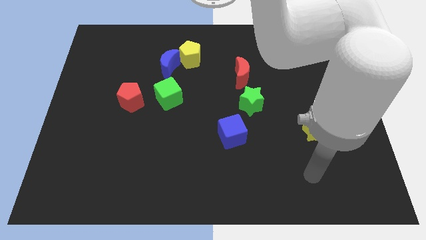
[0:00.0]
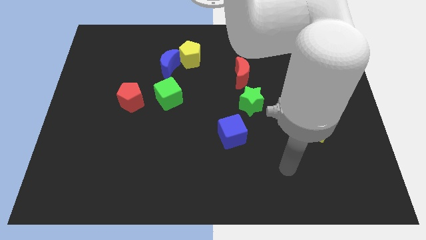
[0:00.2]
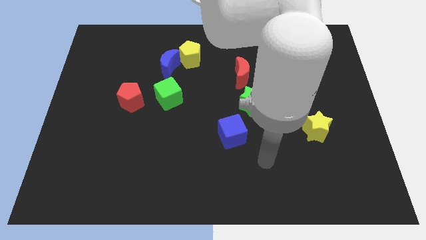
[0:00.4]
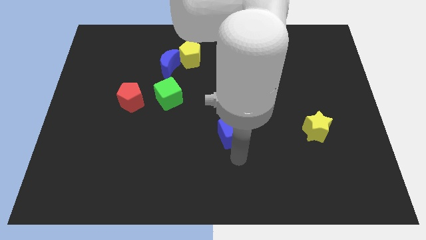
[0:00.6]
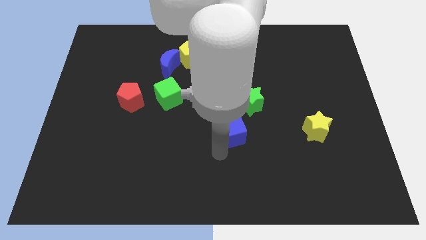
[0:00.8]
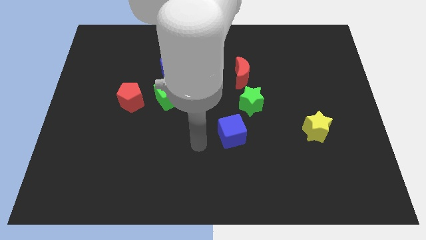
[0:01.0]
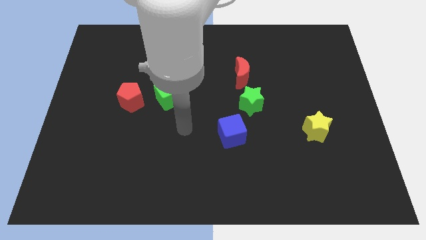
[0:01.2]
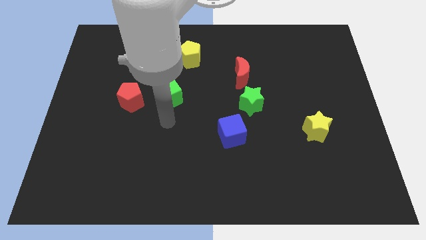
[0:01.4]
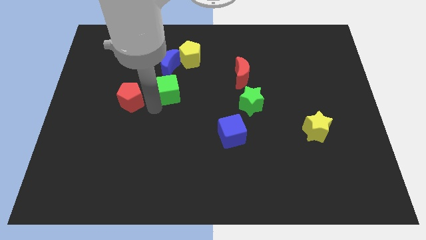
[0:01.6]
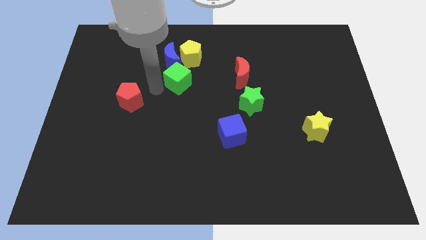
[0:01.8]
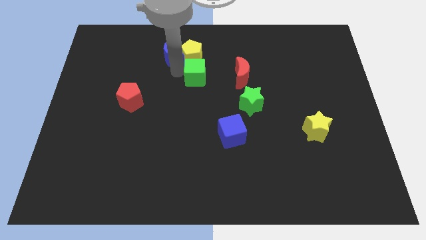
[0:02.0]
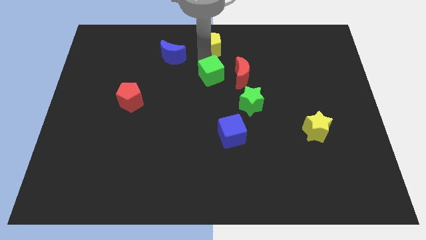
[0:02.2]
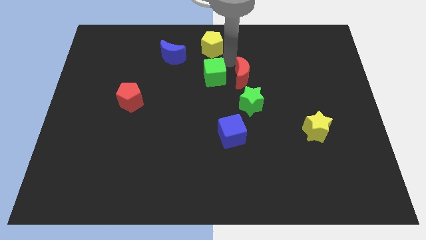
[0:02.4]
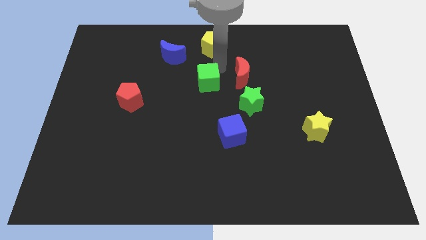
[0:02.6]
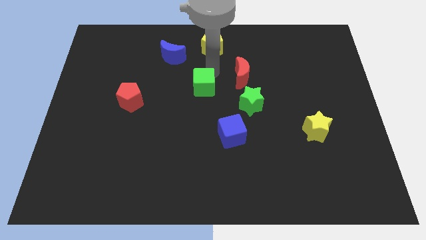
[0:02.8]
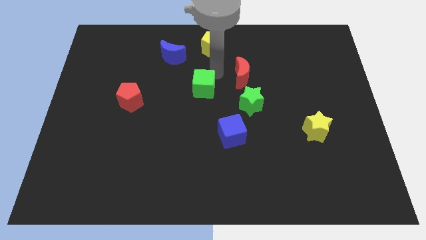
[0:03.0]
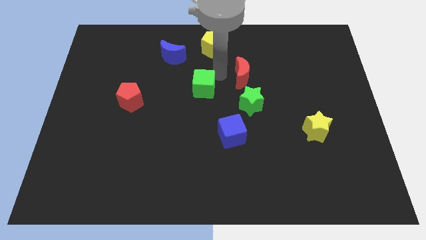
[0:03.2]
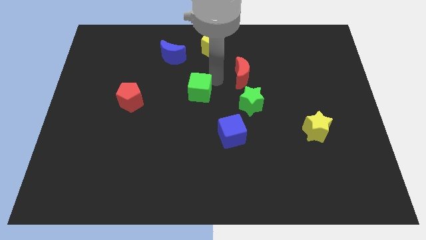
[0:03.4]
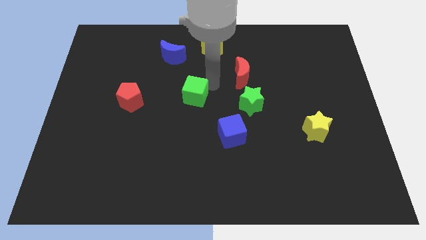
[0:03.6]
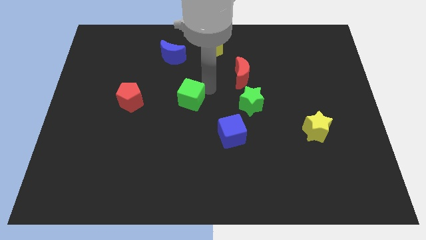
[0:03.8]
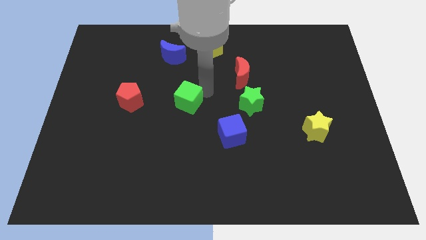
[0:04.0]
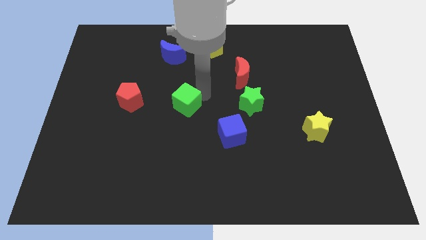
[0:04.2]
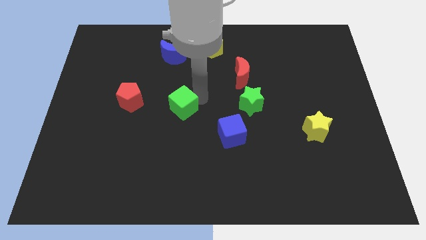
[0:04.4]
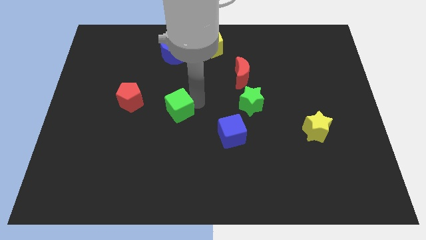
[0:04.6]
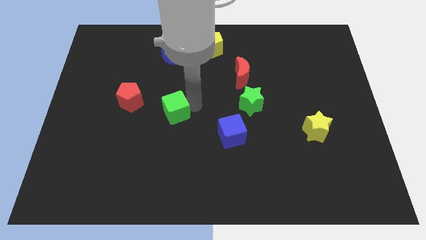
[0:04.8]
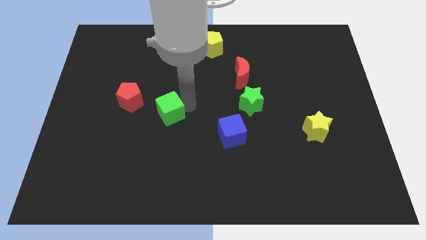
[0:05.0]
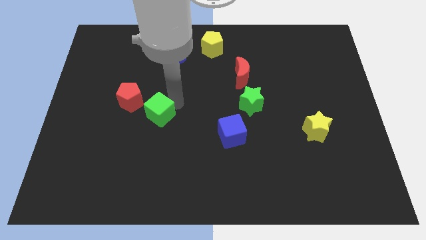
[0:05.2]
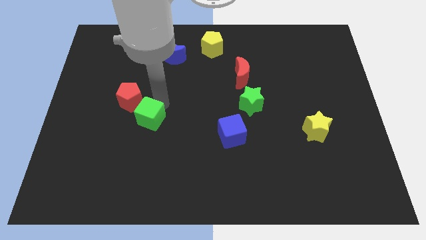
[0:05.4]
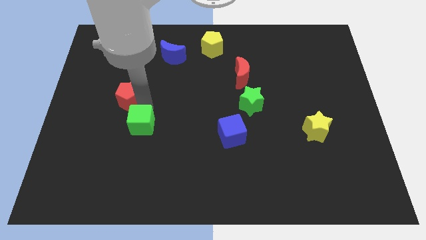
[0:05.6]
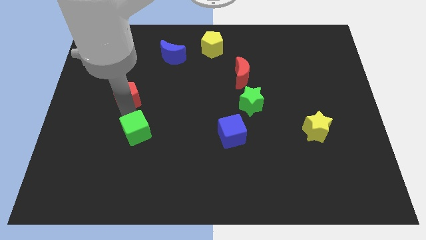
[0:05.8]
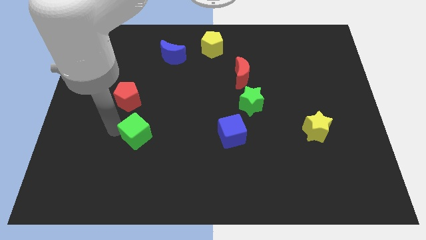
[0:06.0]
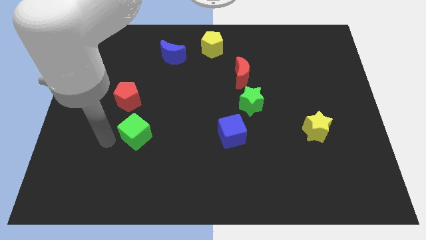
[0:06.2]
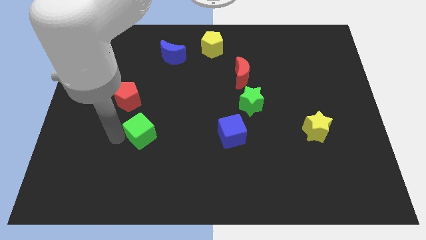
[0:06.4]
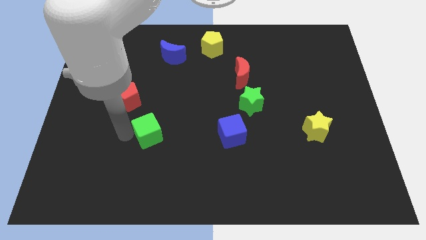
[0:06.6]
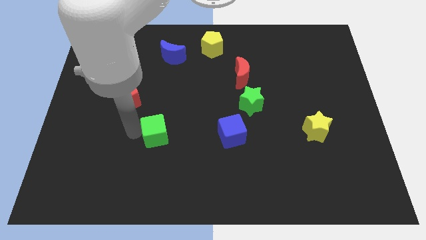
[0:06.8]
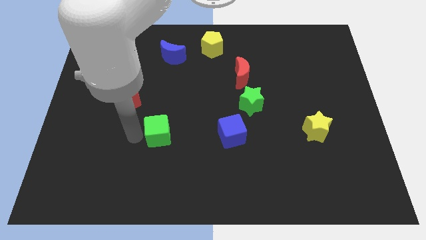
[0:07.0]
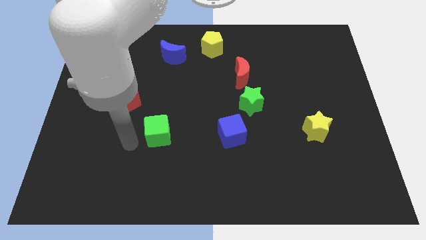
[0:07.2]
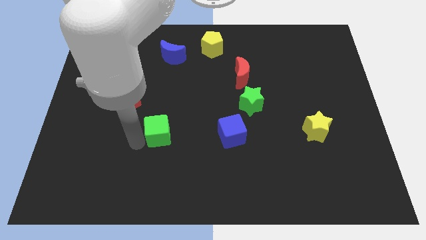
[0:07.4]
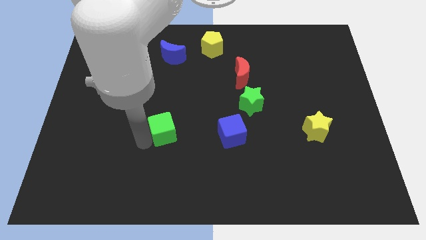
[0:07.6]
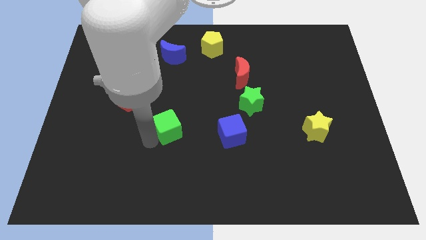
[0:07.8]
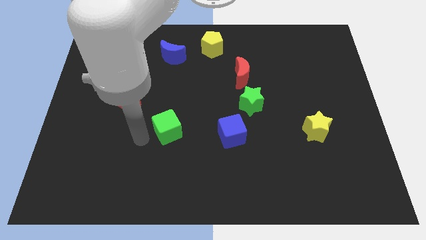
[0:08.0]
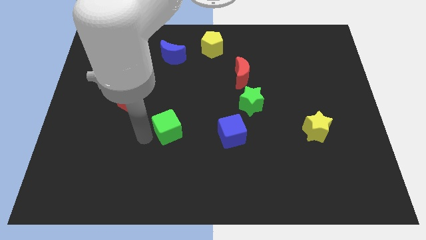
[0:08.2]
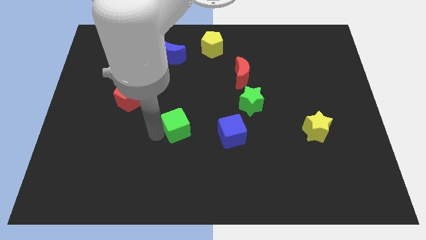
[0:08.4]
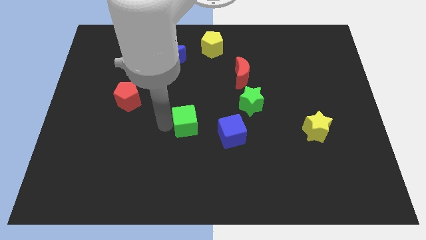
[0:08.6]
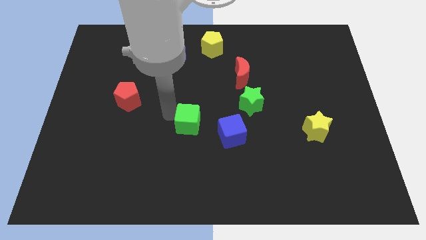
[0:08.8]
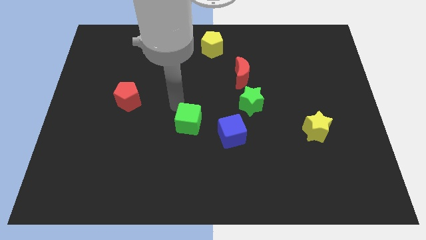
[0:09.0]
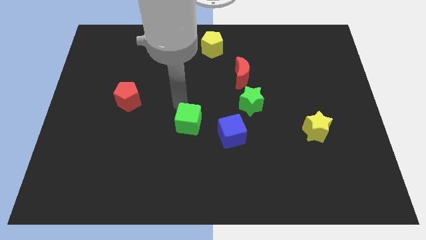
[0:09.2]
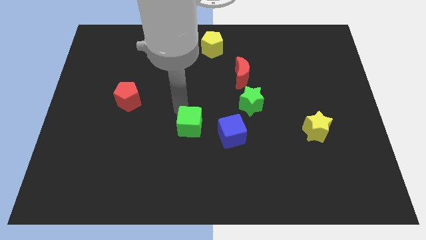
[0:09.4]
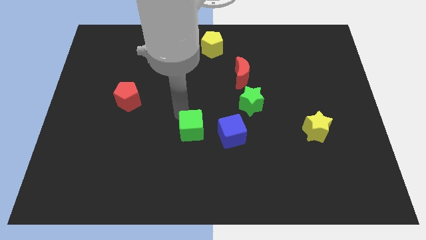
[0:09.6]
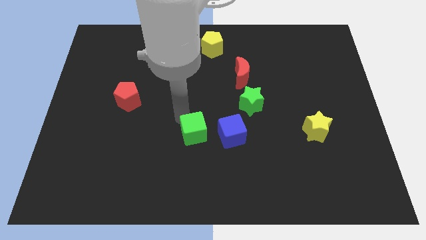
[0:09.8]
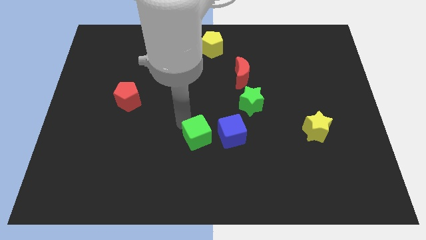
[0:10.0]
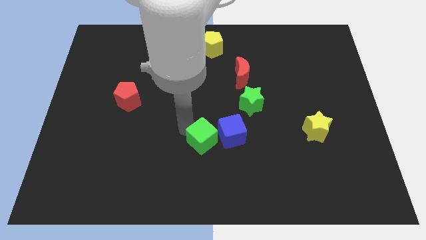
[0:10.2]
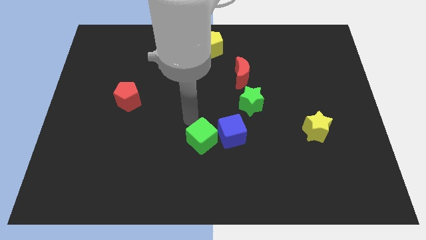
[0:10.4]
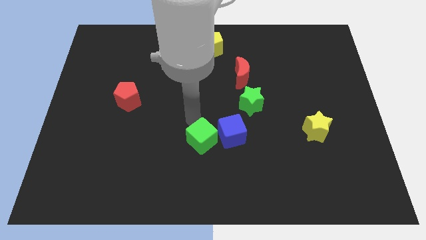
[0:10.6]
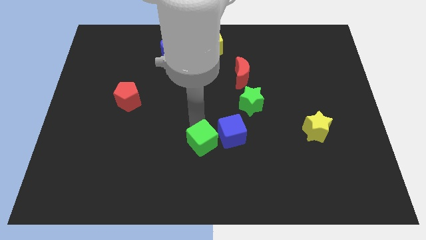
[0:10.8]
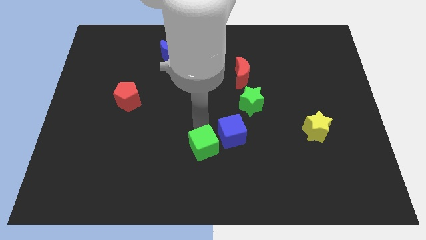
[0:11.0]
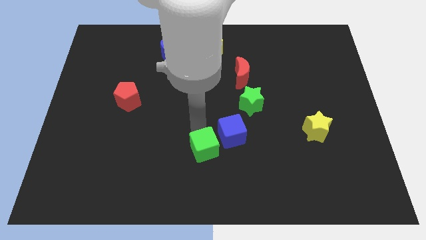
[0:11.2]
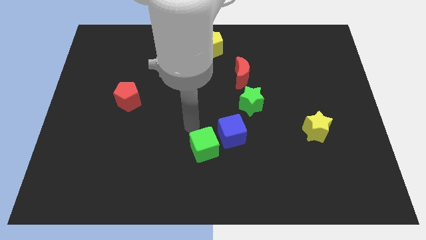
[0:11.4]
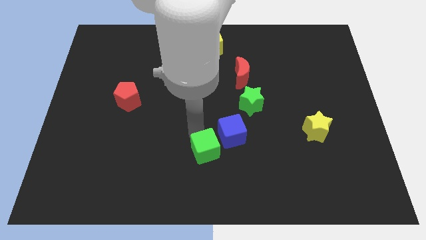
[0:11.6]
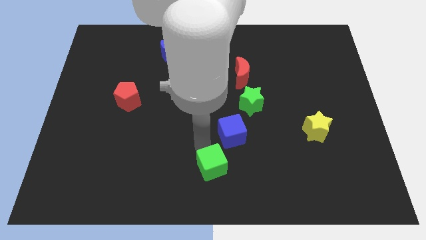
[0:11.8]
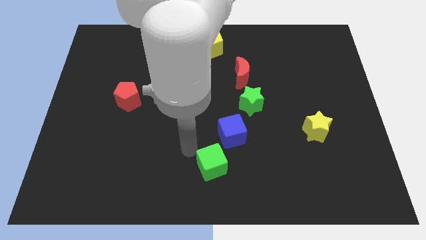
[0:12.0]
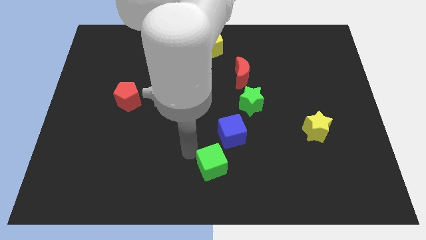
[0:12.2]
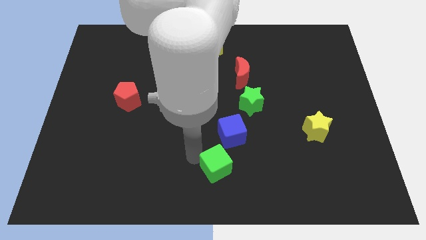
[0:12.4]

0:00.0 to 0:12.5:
move the green cube downwards and then to the right

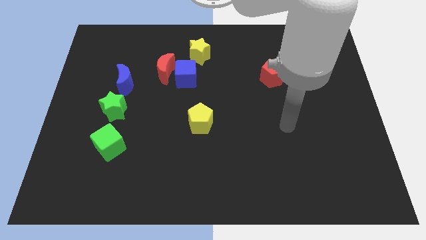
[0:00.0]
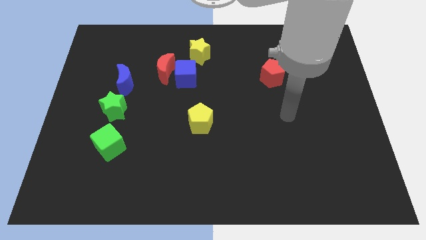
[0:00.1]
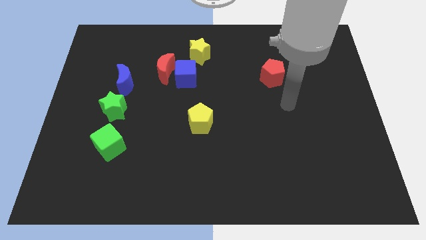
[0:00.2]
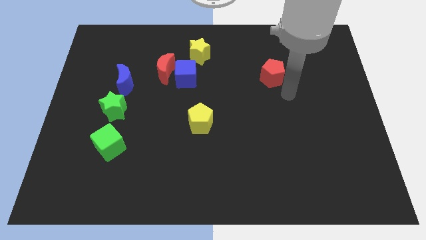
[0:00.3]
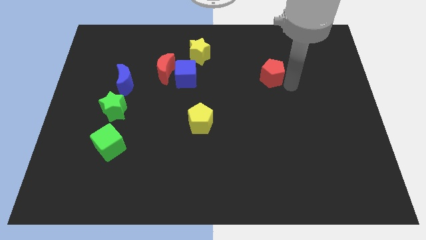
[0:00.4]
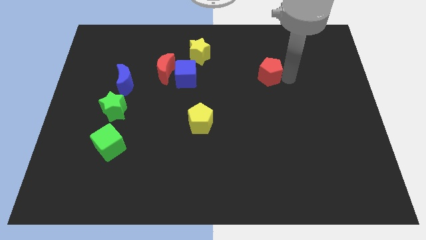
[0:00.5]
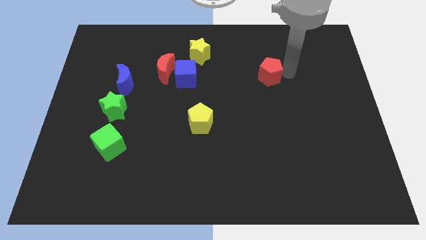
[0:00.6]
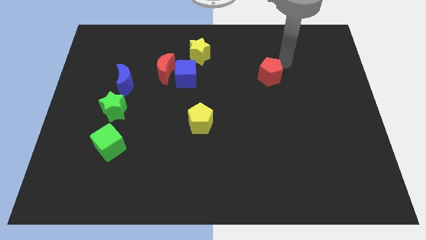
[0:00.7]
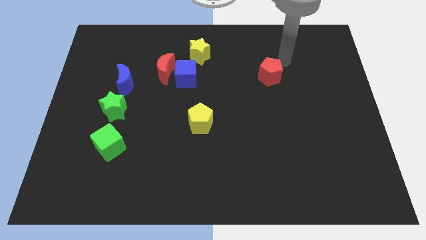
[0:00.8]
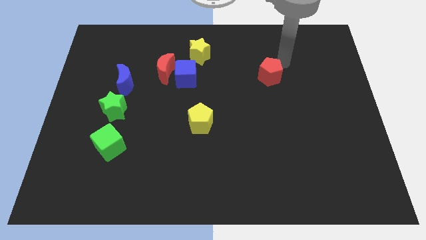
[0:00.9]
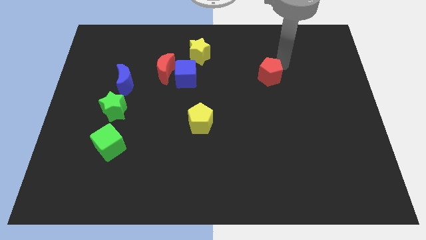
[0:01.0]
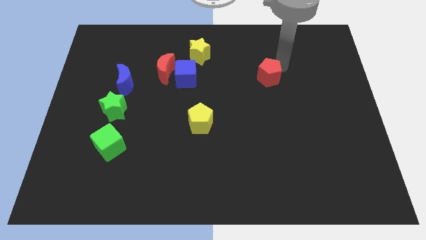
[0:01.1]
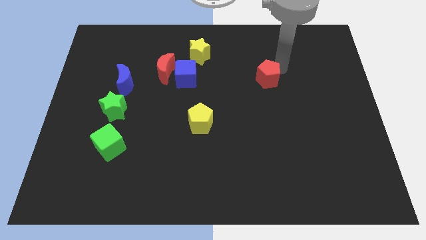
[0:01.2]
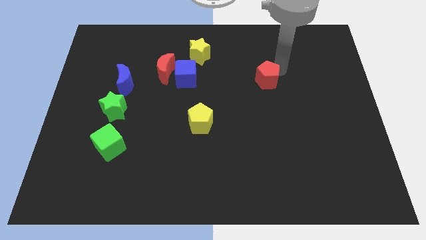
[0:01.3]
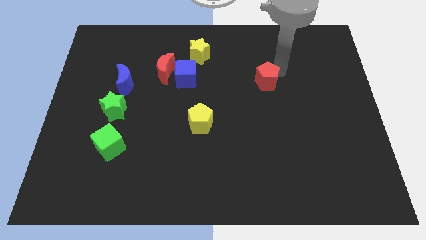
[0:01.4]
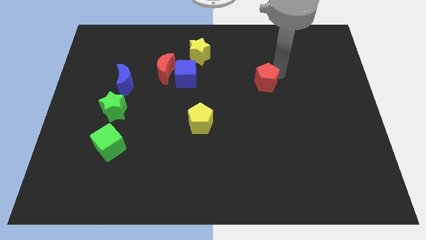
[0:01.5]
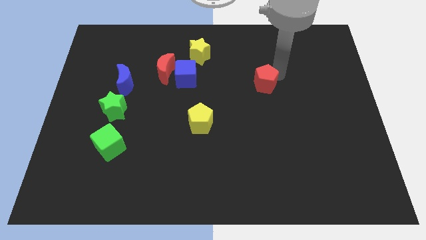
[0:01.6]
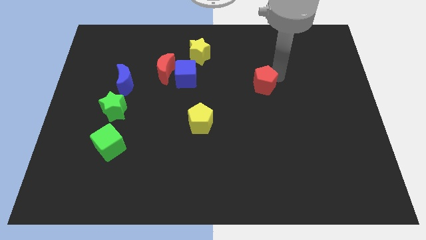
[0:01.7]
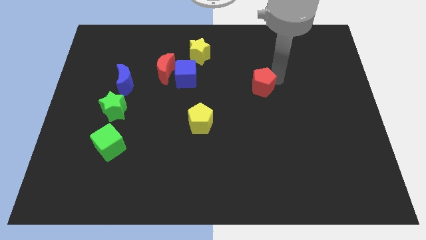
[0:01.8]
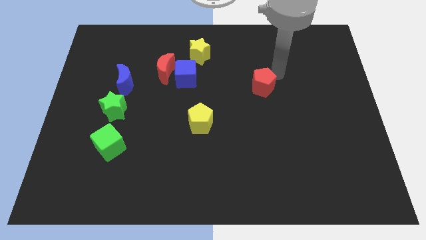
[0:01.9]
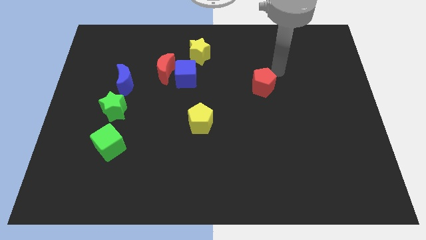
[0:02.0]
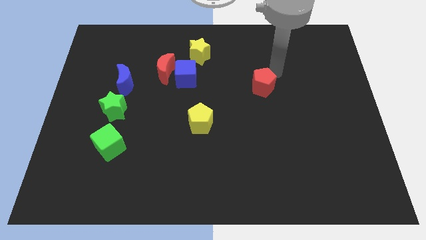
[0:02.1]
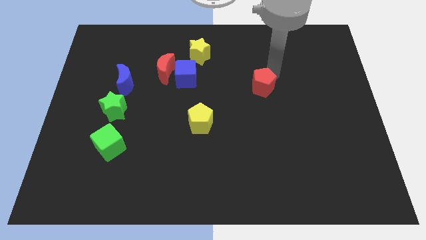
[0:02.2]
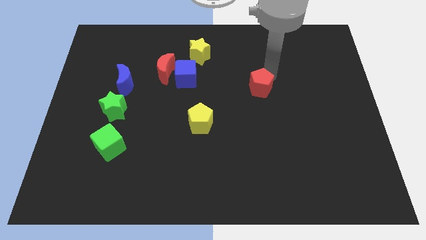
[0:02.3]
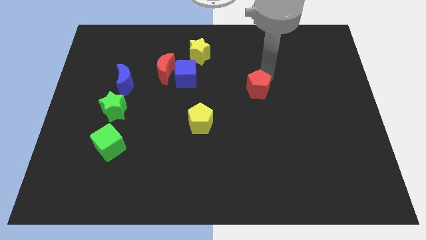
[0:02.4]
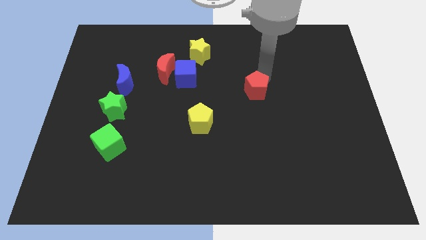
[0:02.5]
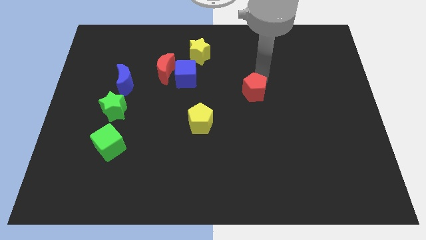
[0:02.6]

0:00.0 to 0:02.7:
push the red pentagon slightly down and to the left diagonally
